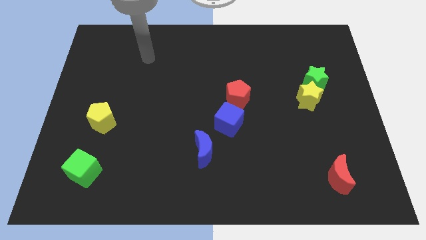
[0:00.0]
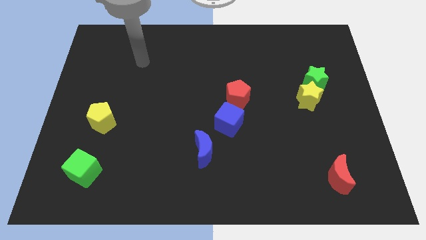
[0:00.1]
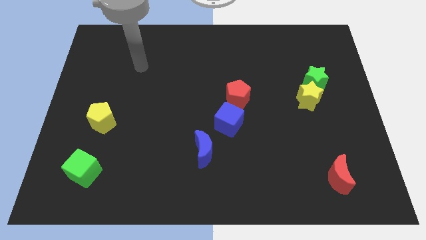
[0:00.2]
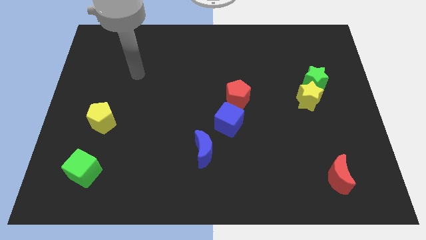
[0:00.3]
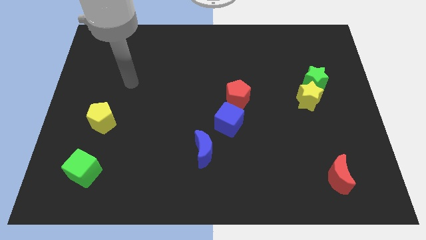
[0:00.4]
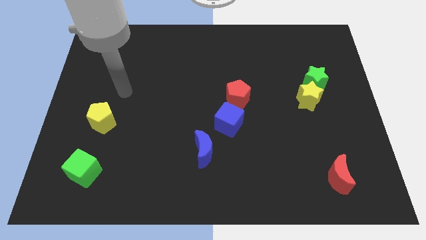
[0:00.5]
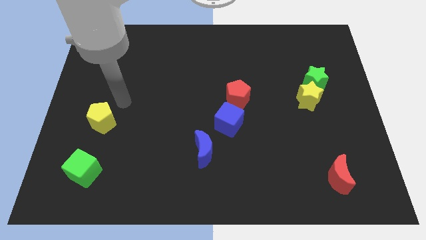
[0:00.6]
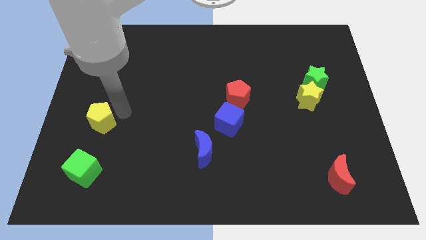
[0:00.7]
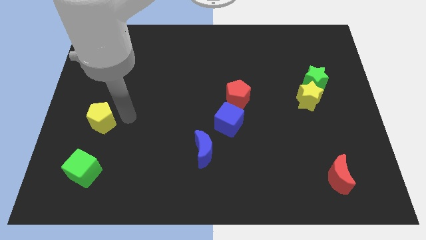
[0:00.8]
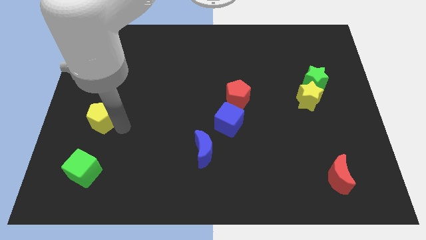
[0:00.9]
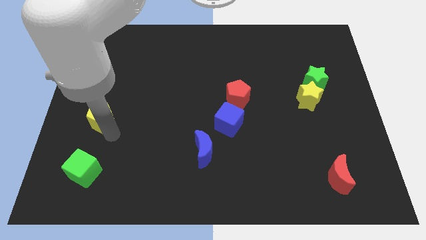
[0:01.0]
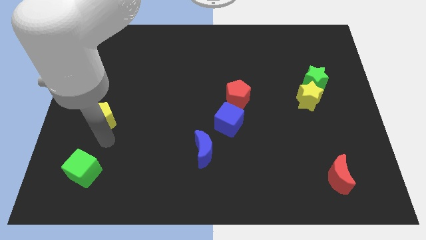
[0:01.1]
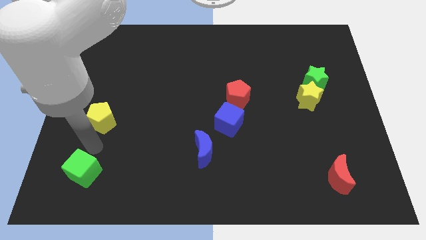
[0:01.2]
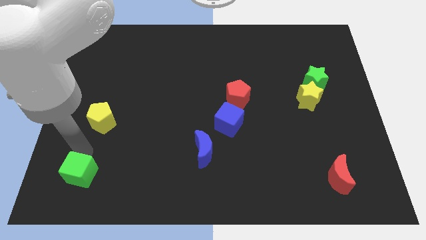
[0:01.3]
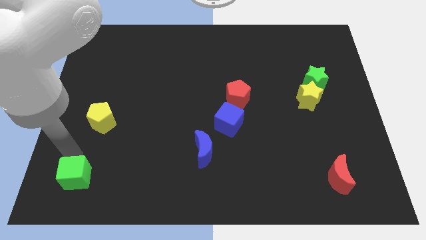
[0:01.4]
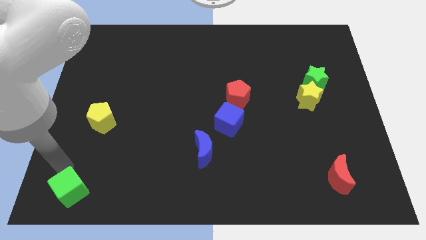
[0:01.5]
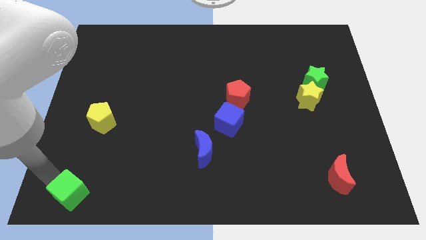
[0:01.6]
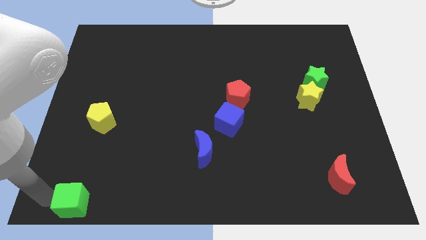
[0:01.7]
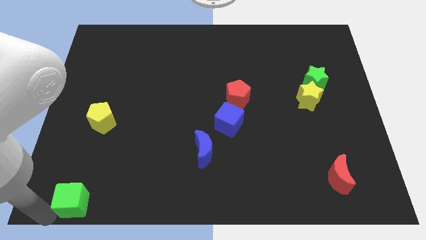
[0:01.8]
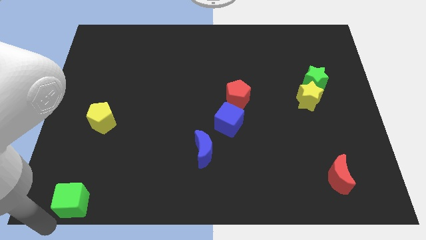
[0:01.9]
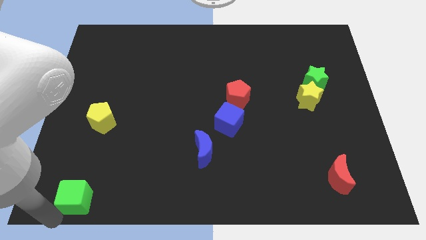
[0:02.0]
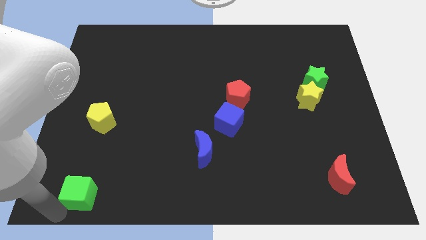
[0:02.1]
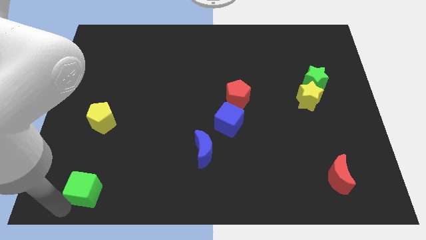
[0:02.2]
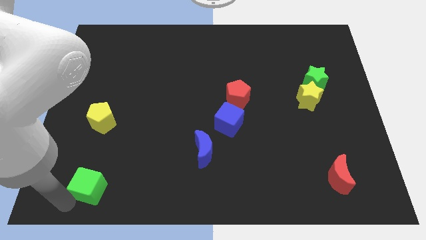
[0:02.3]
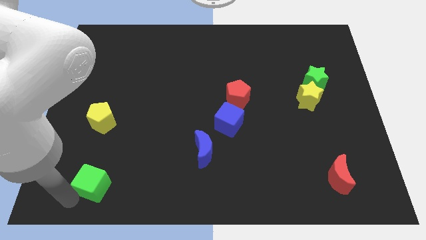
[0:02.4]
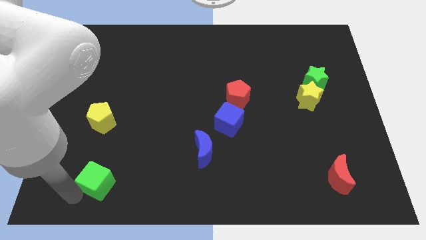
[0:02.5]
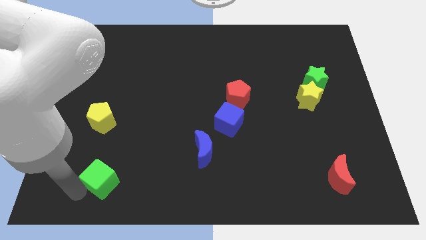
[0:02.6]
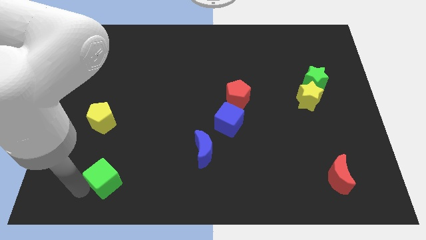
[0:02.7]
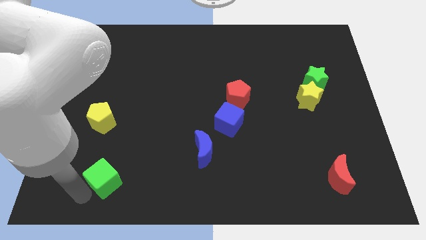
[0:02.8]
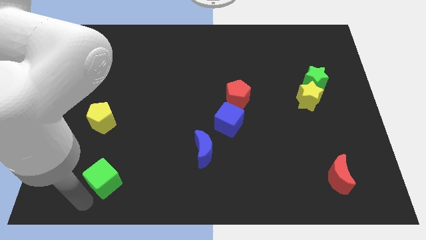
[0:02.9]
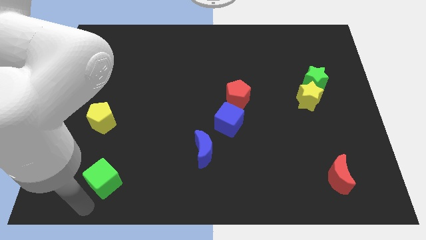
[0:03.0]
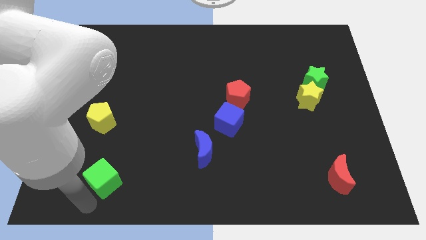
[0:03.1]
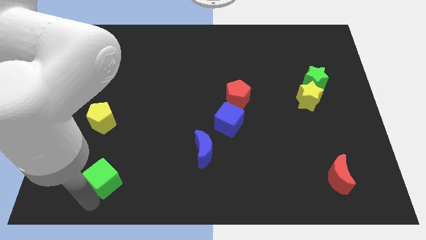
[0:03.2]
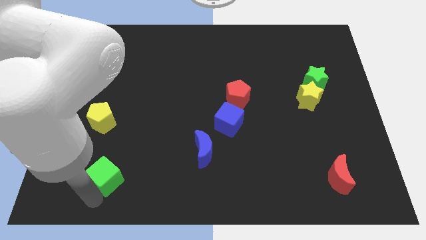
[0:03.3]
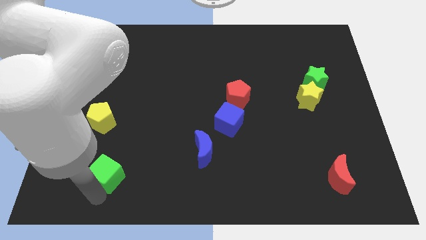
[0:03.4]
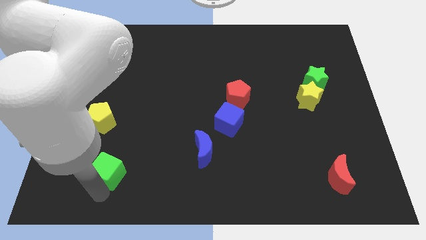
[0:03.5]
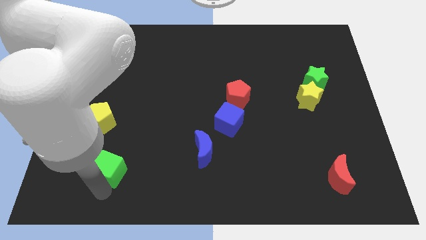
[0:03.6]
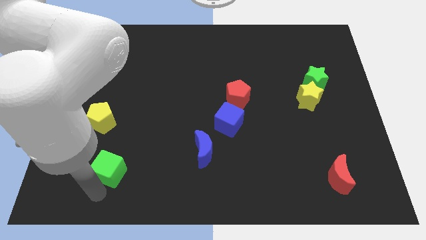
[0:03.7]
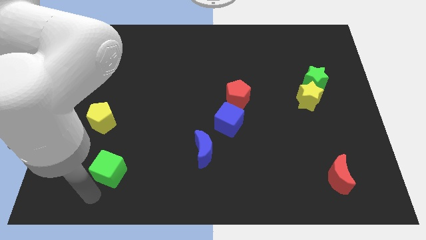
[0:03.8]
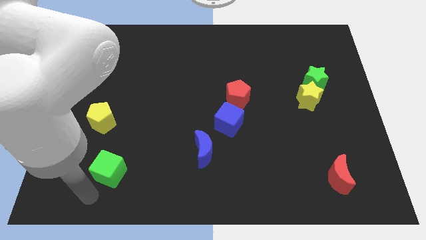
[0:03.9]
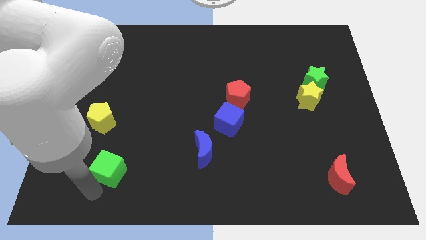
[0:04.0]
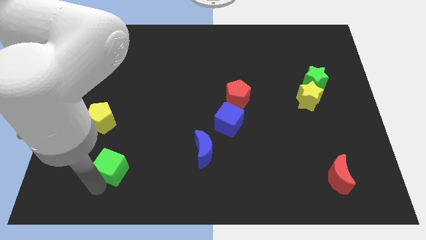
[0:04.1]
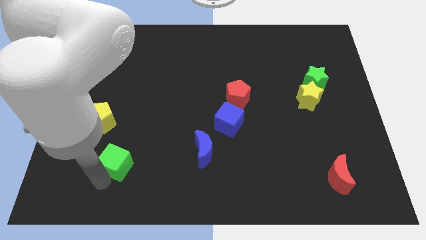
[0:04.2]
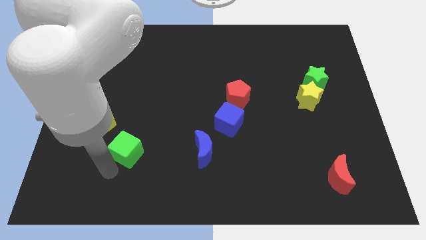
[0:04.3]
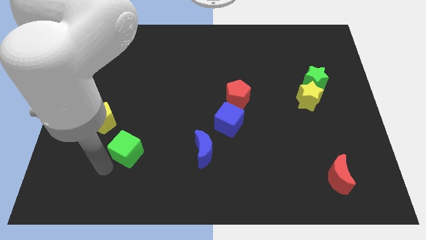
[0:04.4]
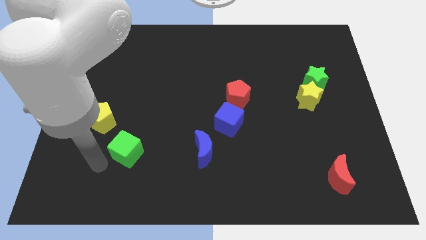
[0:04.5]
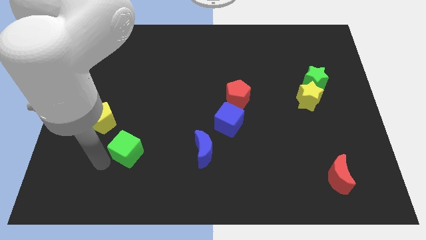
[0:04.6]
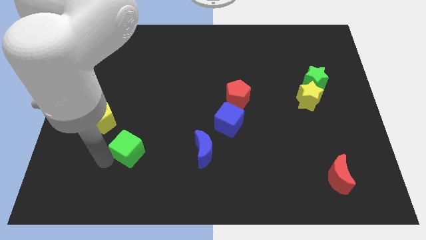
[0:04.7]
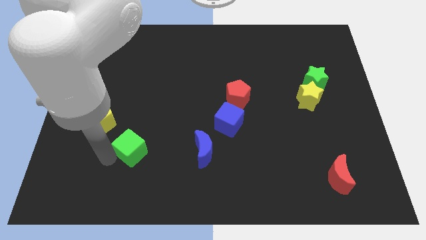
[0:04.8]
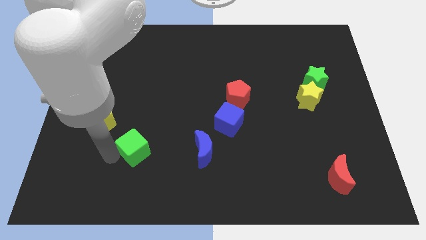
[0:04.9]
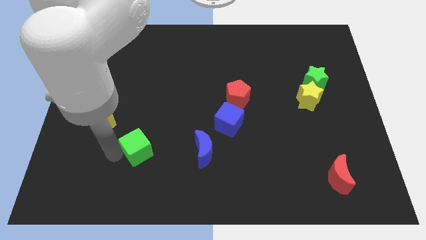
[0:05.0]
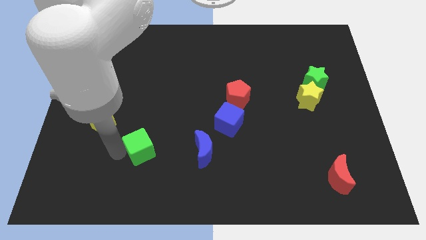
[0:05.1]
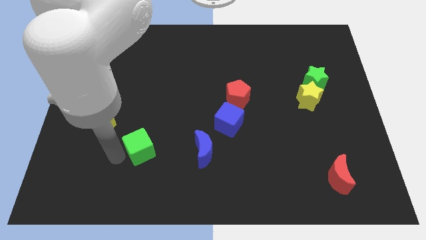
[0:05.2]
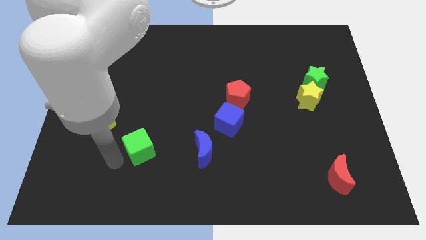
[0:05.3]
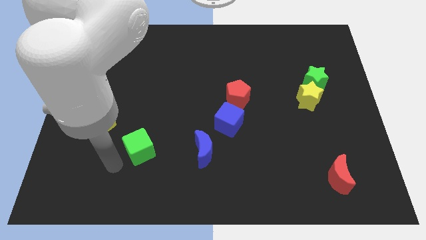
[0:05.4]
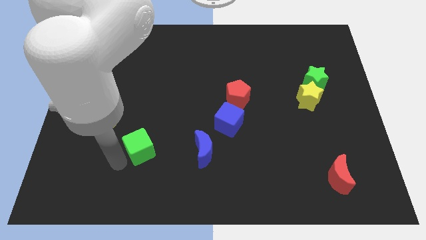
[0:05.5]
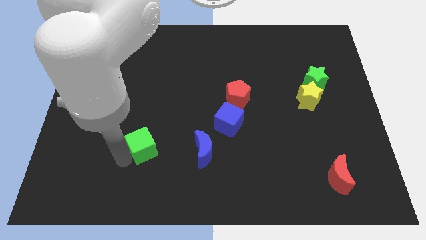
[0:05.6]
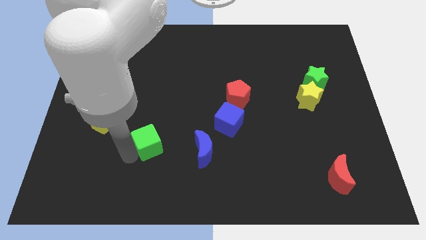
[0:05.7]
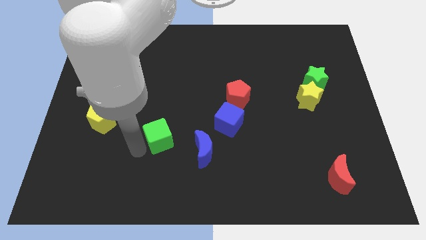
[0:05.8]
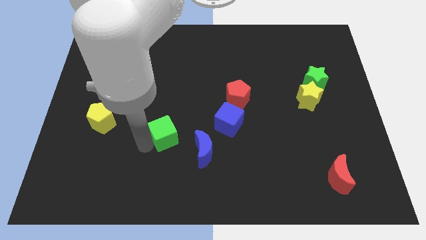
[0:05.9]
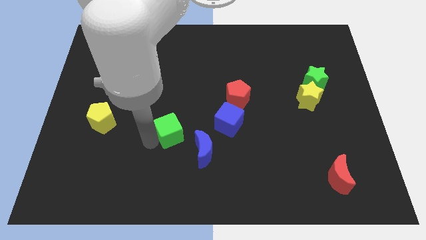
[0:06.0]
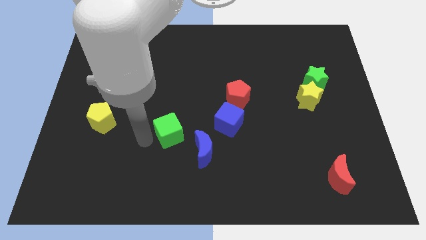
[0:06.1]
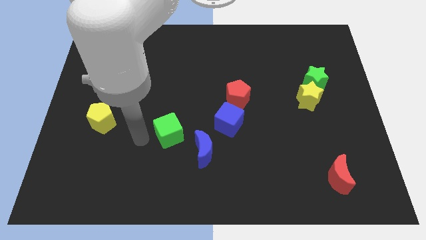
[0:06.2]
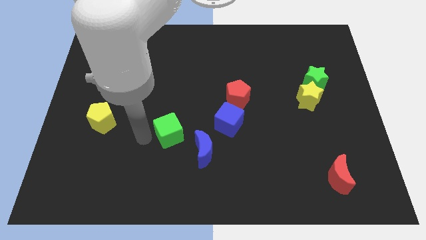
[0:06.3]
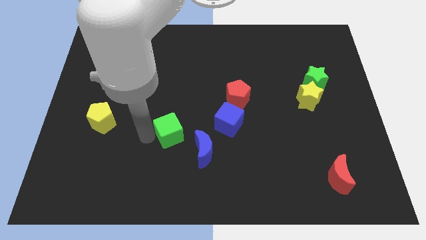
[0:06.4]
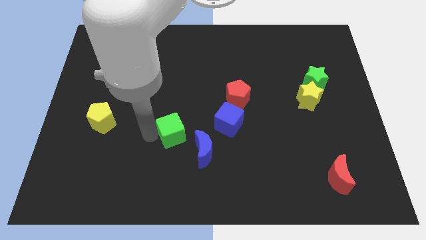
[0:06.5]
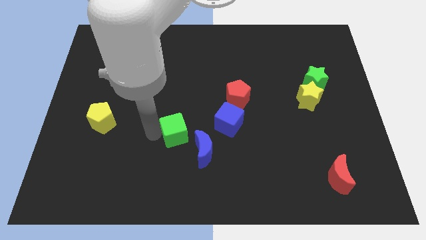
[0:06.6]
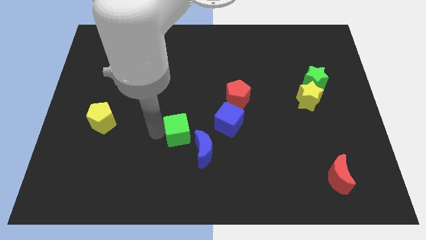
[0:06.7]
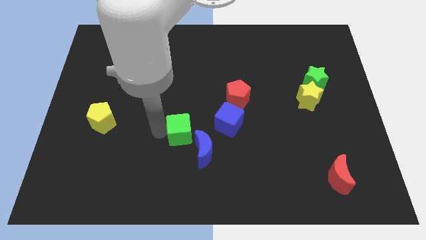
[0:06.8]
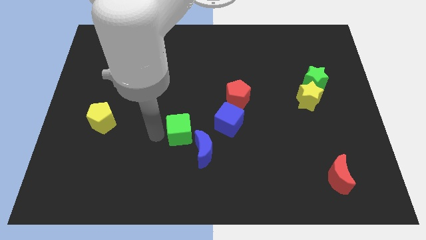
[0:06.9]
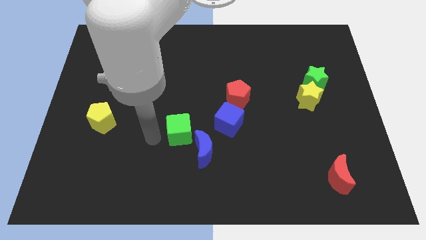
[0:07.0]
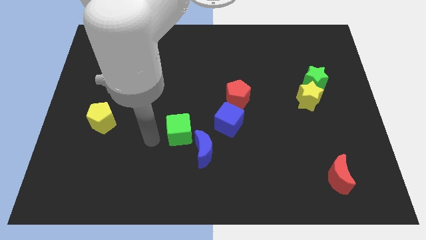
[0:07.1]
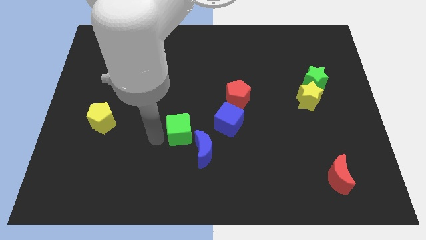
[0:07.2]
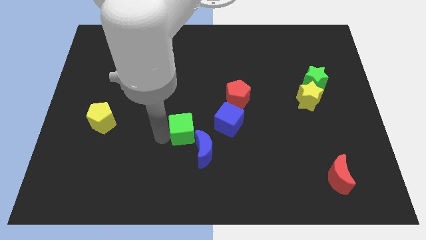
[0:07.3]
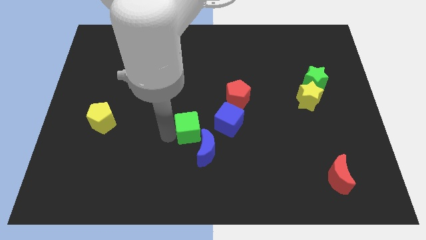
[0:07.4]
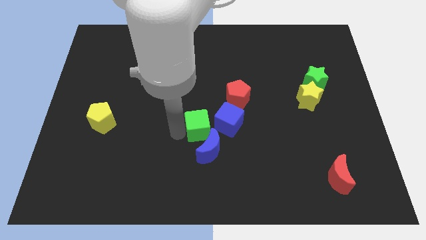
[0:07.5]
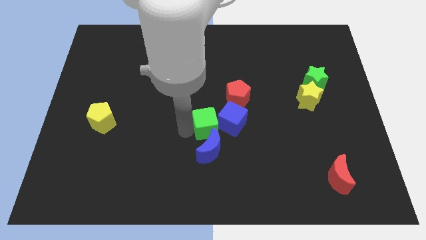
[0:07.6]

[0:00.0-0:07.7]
move the green cube close to the blue cube

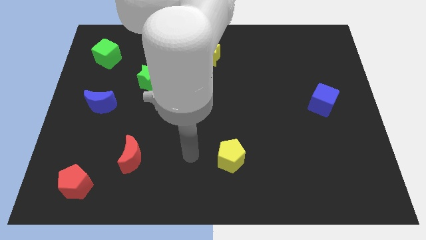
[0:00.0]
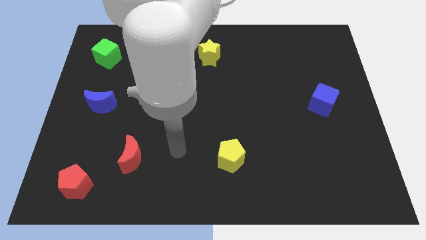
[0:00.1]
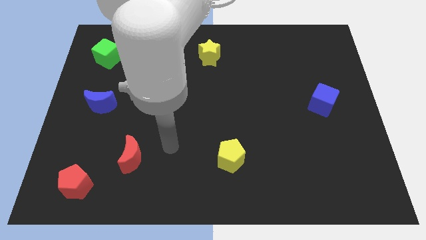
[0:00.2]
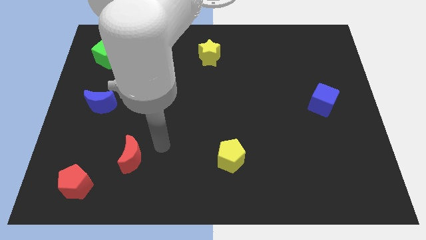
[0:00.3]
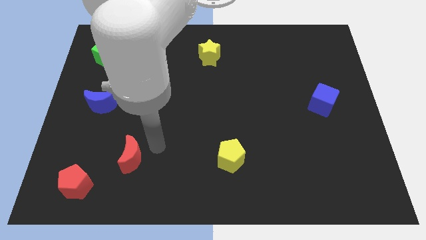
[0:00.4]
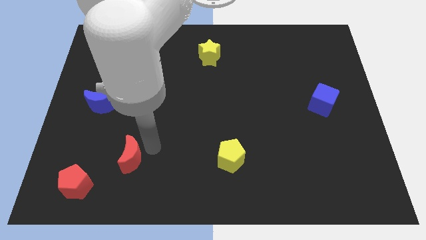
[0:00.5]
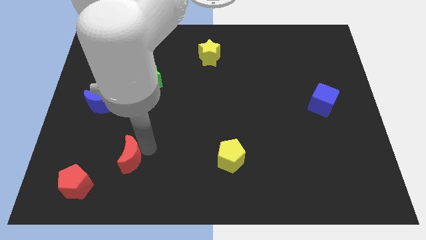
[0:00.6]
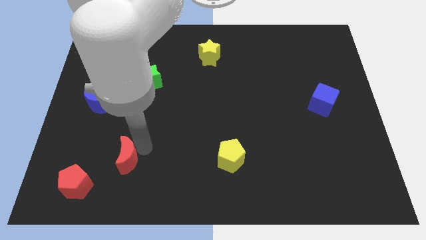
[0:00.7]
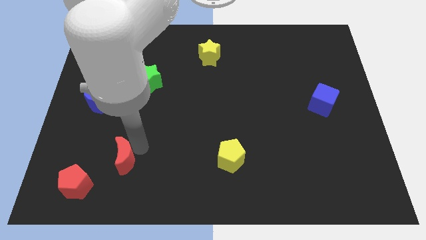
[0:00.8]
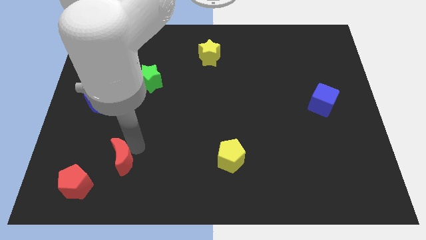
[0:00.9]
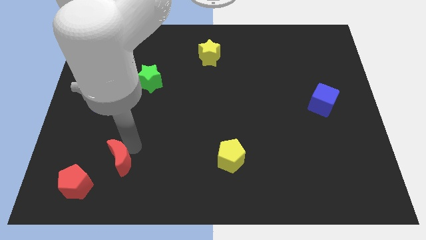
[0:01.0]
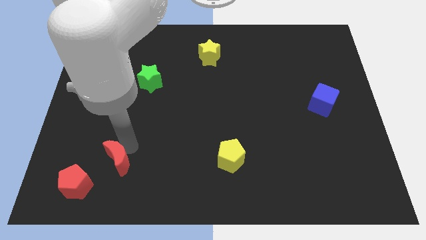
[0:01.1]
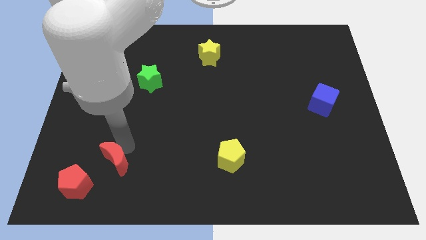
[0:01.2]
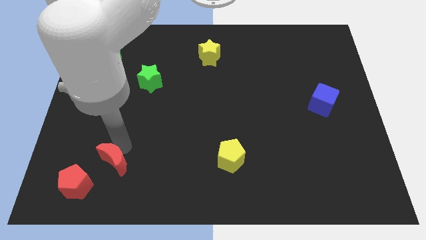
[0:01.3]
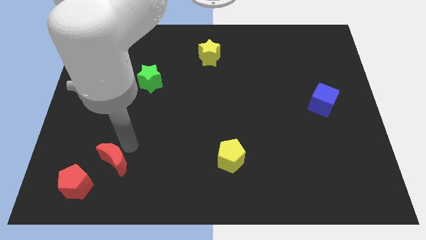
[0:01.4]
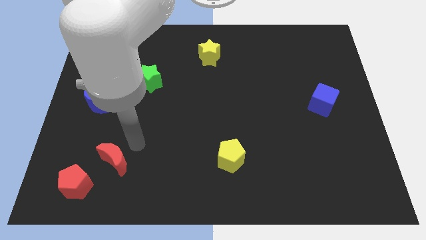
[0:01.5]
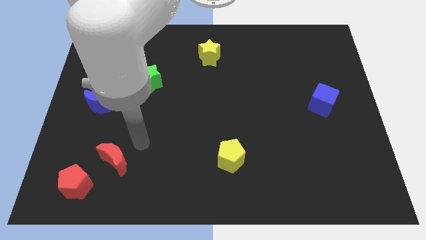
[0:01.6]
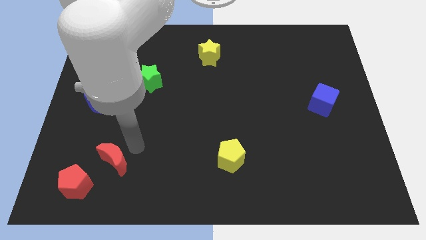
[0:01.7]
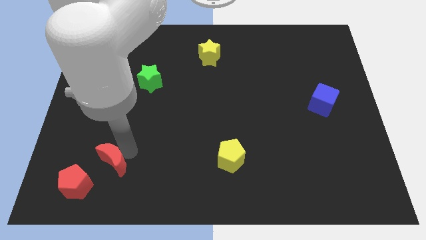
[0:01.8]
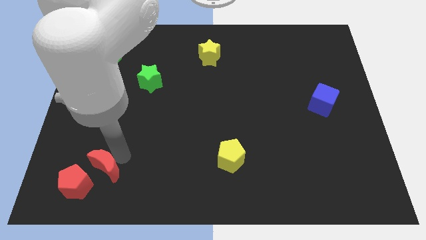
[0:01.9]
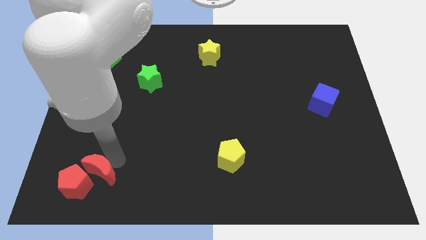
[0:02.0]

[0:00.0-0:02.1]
push the red moon to the red pentagon
